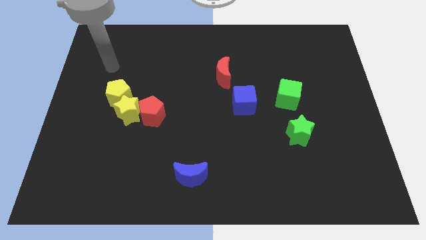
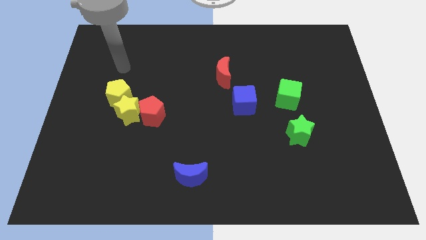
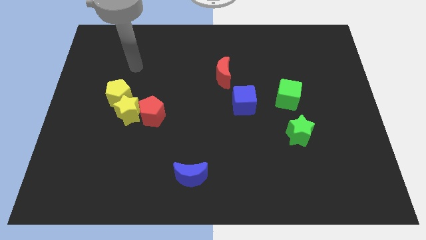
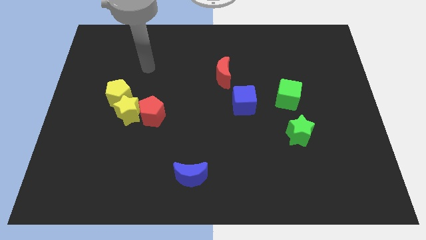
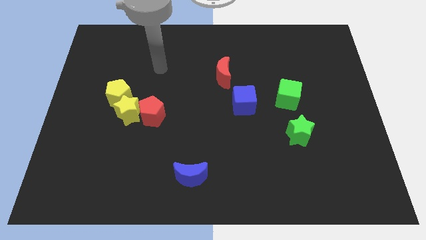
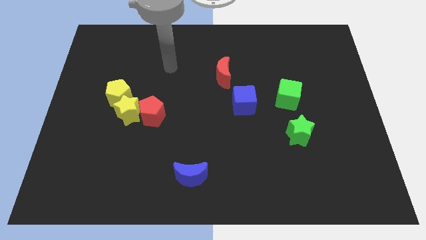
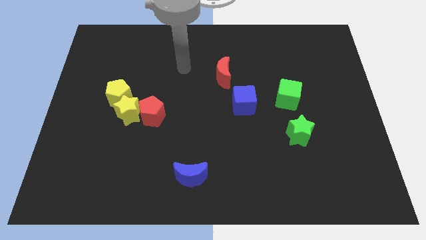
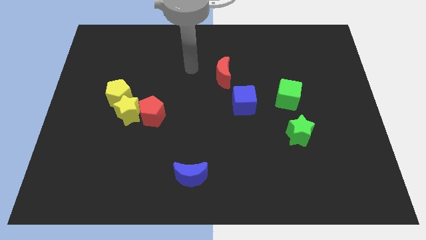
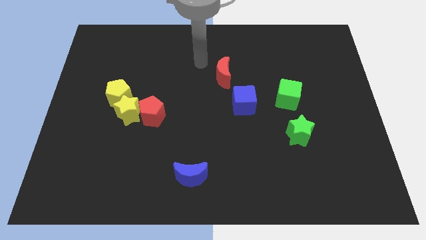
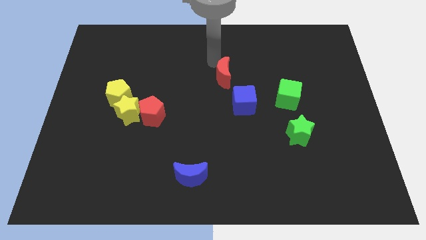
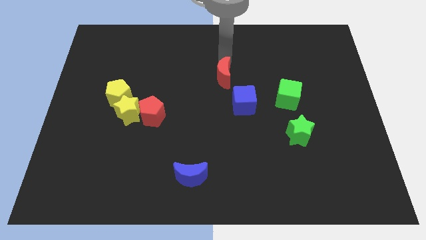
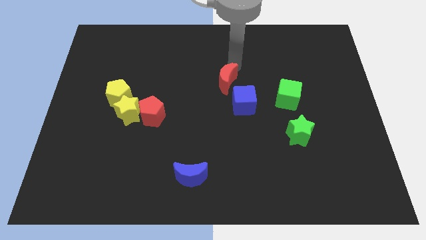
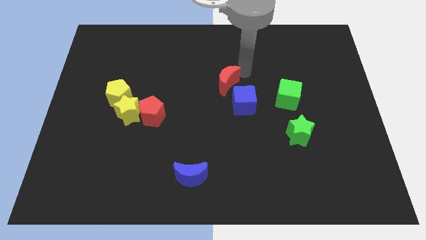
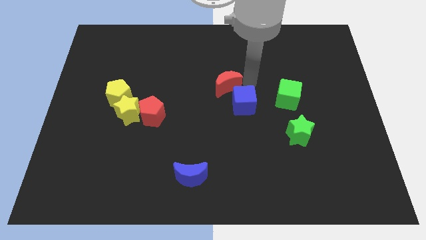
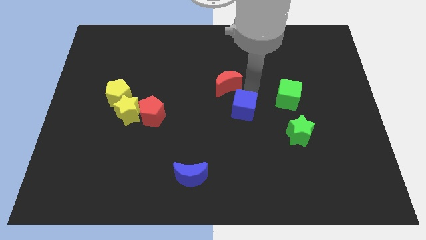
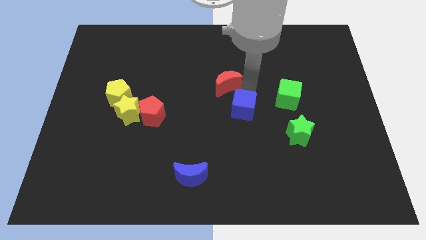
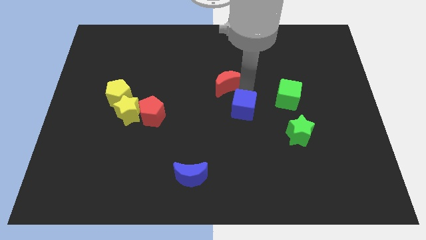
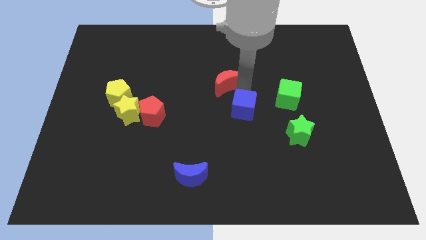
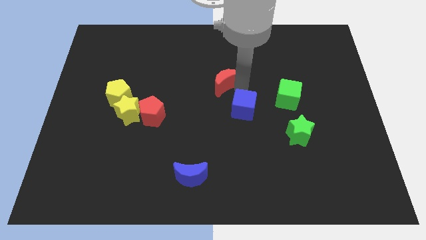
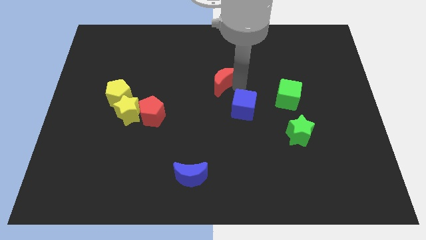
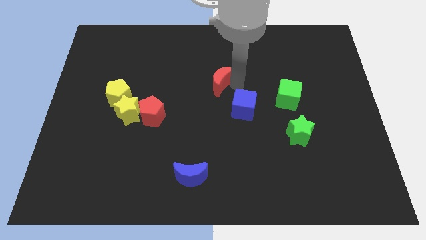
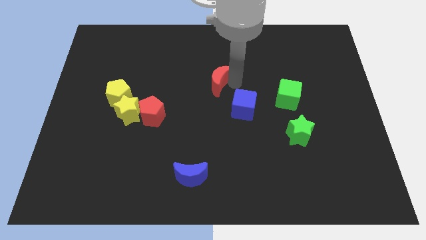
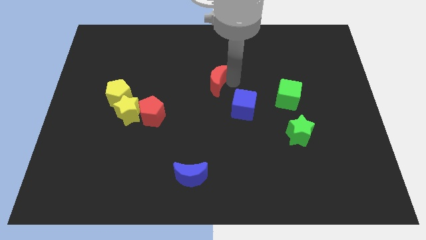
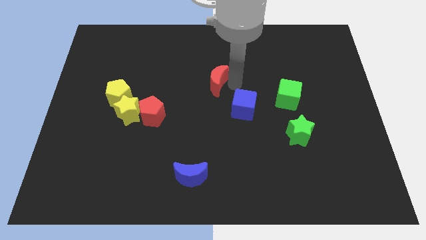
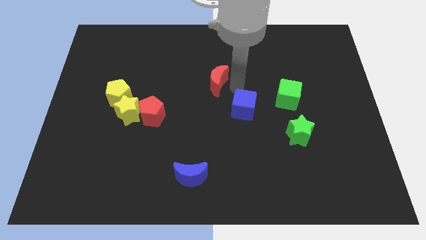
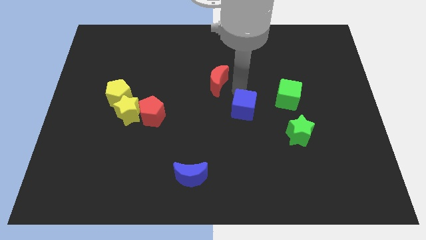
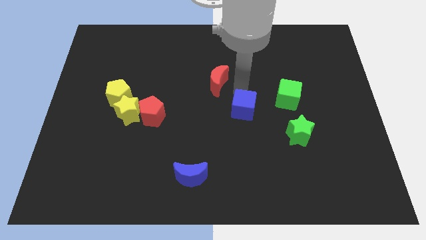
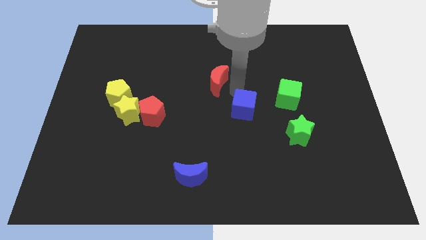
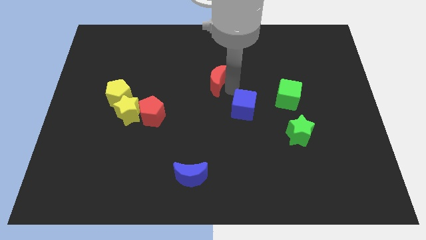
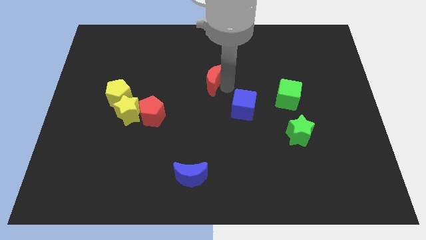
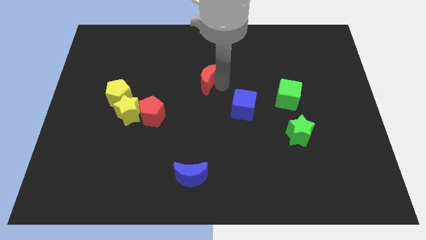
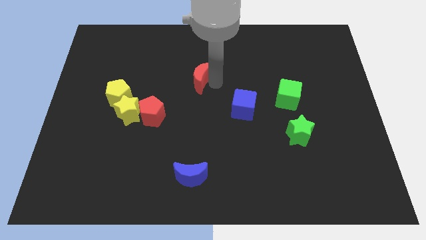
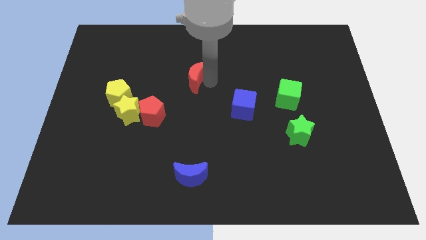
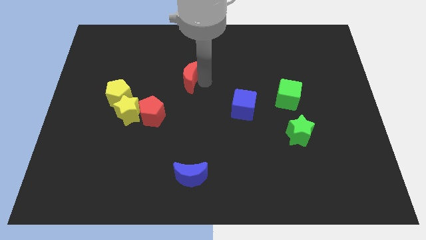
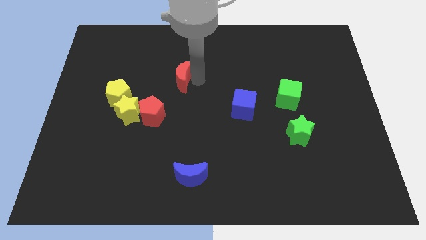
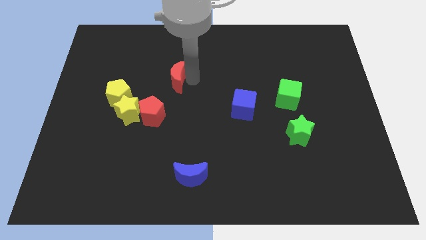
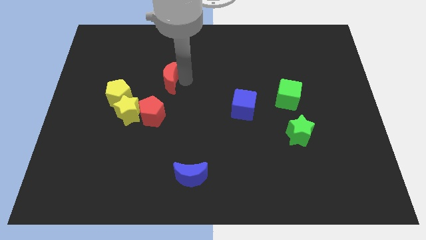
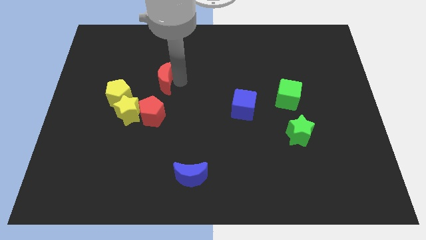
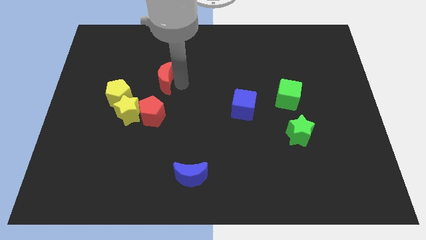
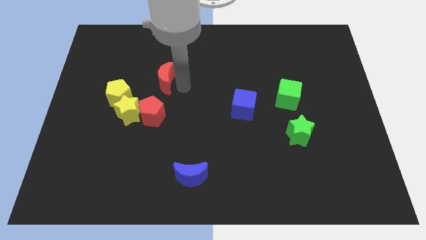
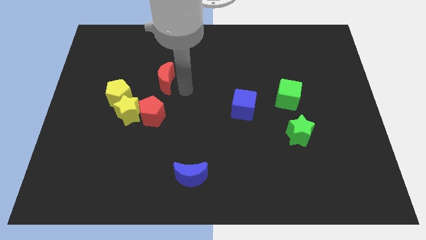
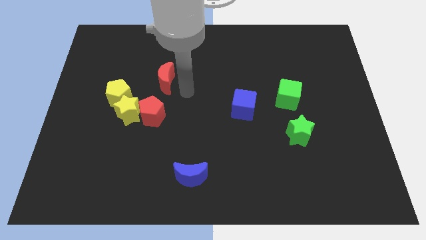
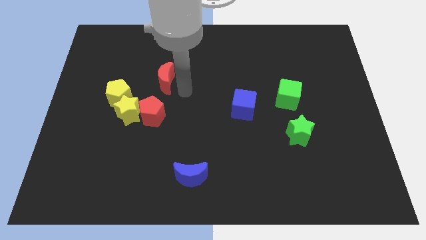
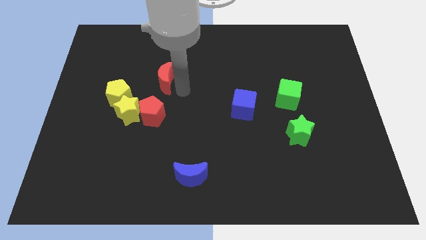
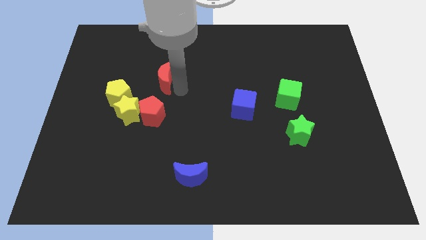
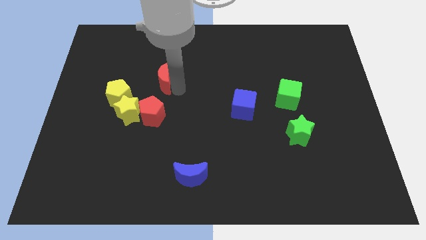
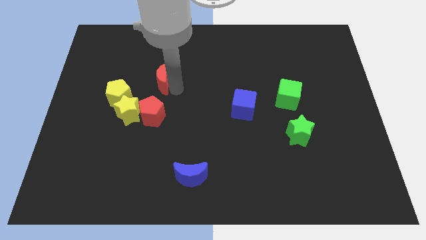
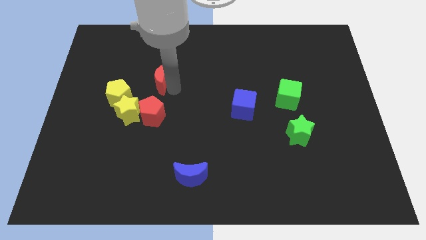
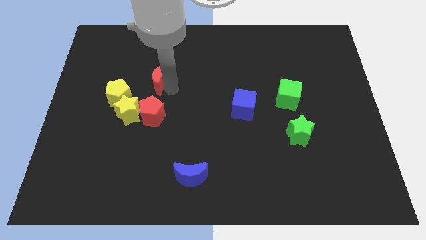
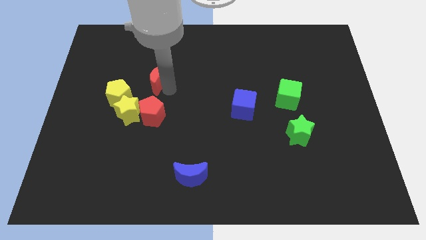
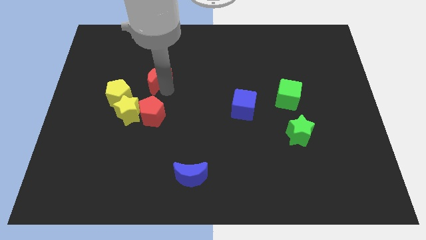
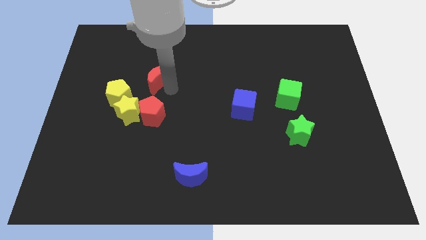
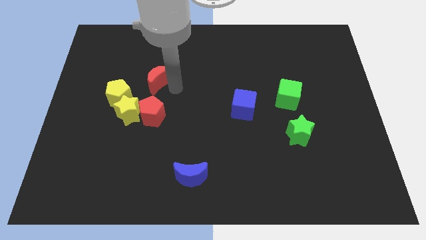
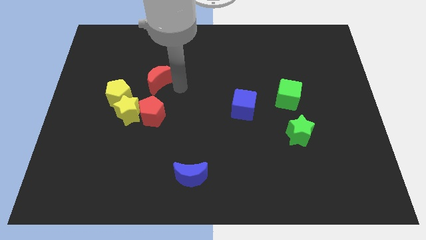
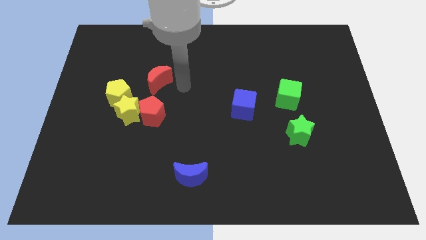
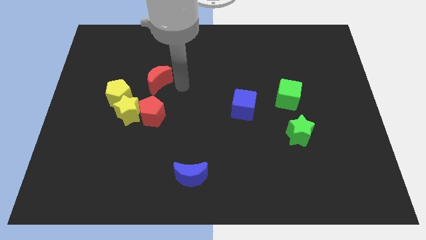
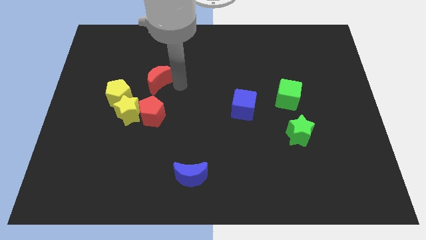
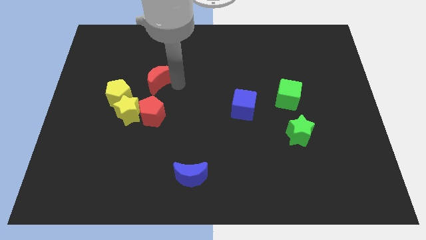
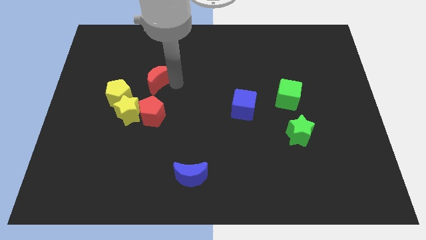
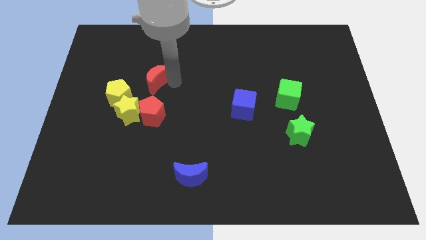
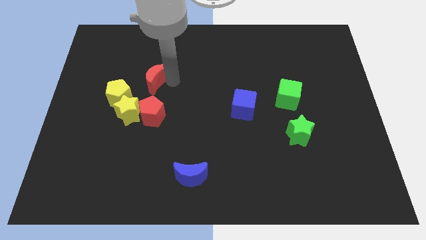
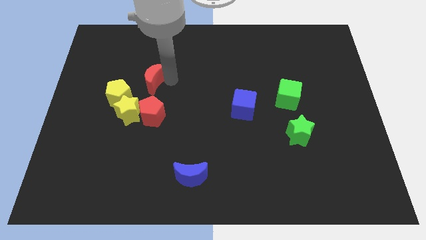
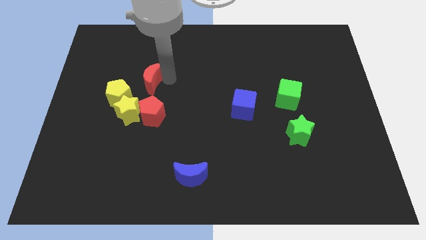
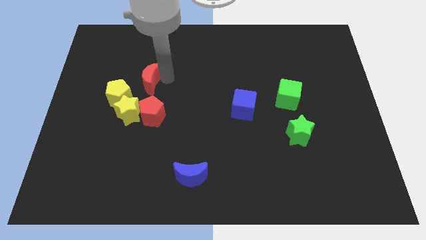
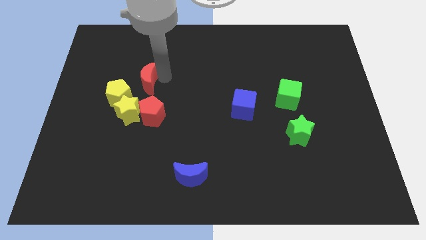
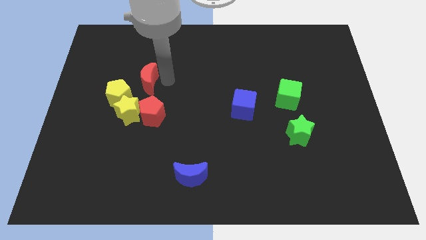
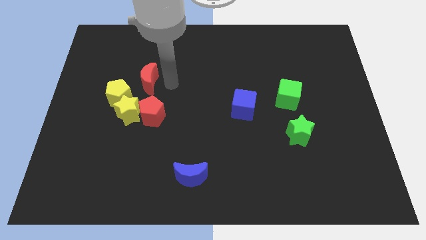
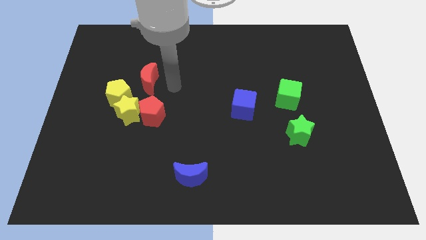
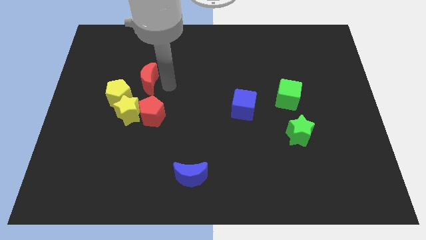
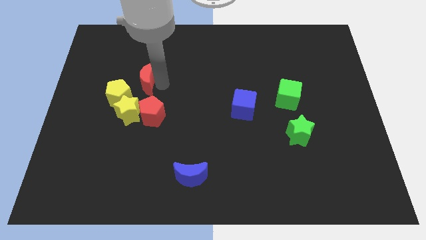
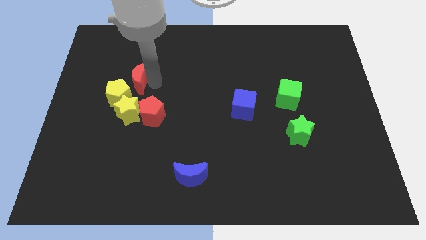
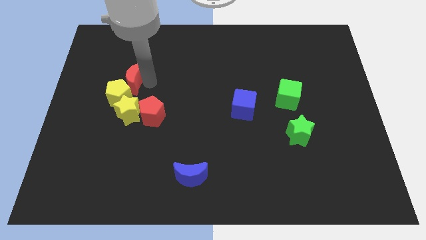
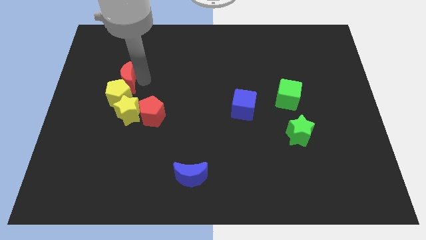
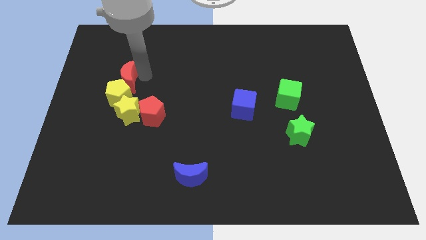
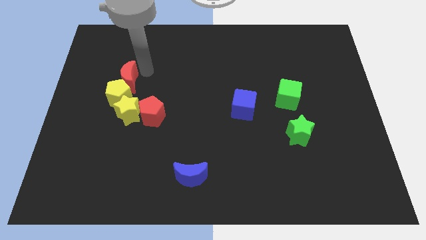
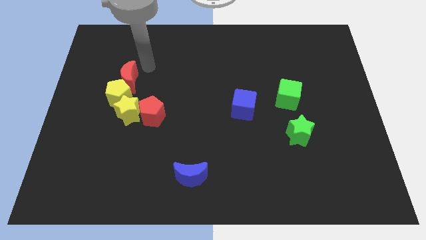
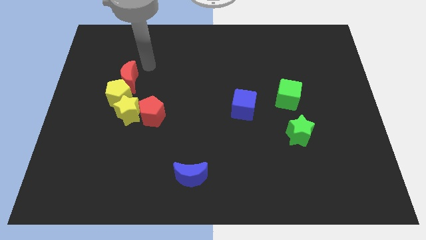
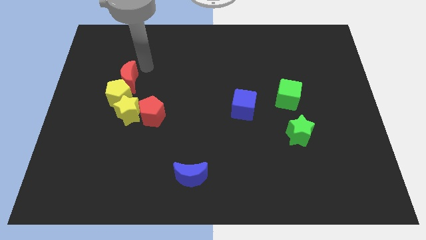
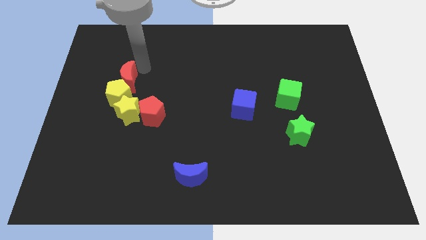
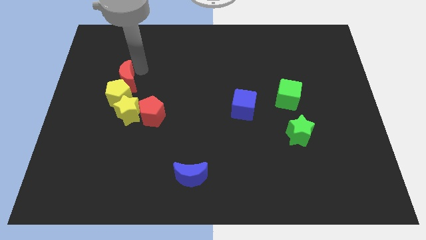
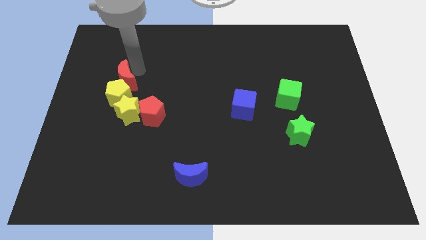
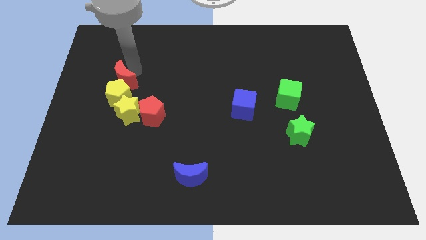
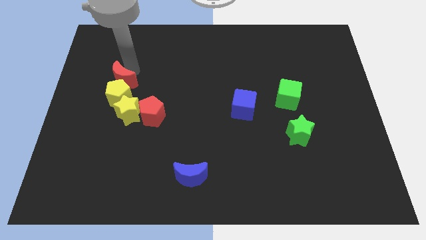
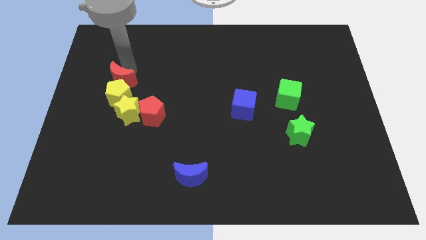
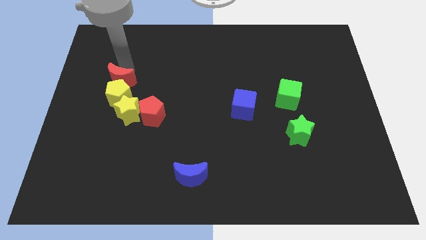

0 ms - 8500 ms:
slide the red moon to the top left of the yellow star
